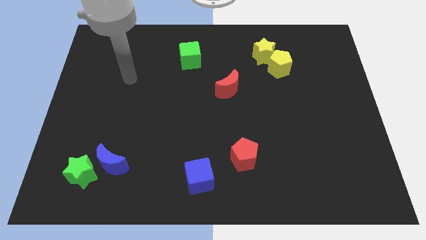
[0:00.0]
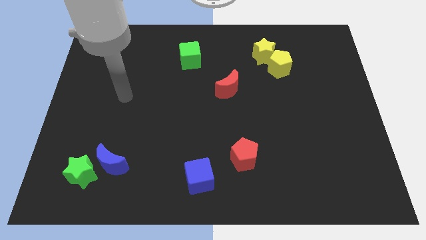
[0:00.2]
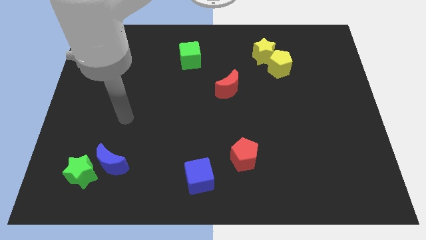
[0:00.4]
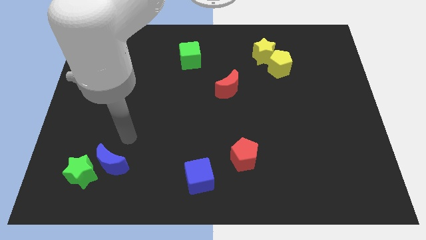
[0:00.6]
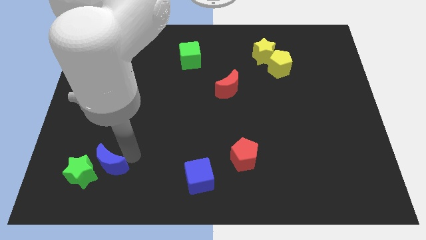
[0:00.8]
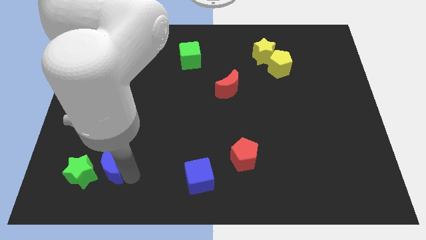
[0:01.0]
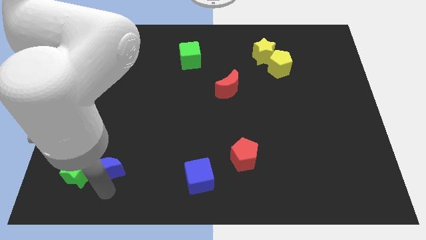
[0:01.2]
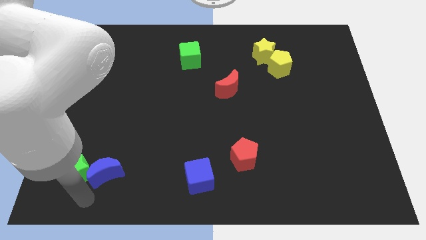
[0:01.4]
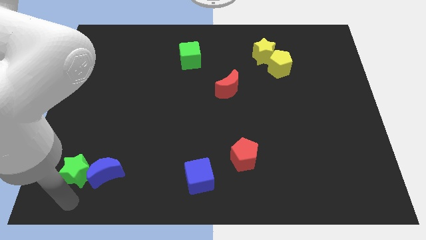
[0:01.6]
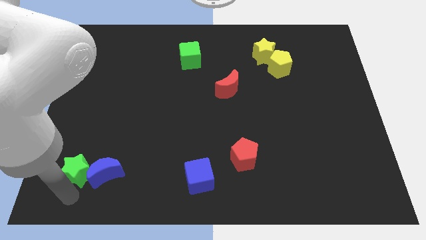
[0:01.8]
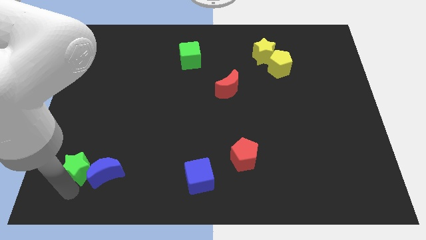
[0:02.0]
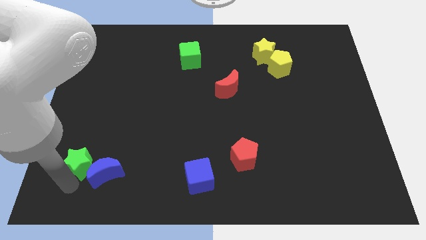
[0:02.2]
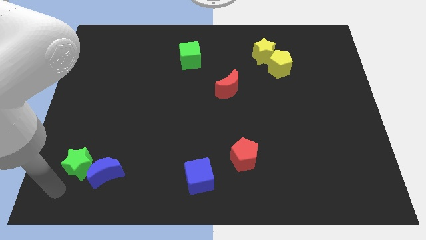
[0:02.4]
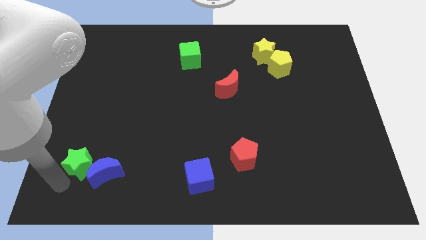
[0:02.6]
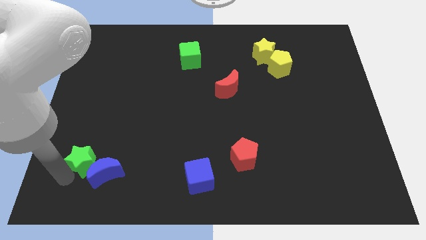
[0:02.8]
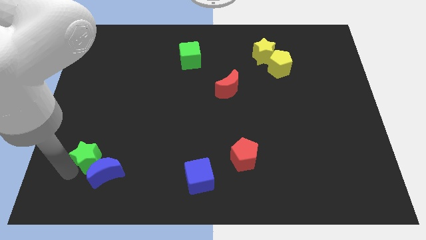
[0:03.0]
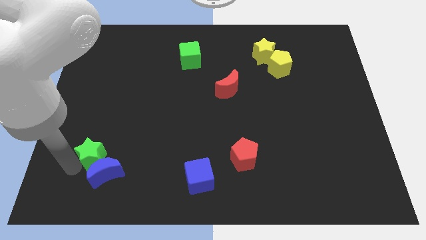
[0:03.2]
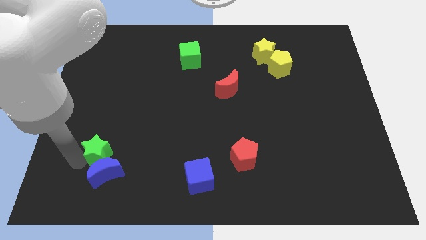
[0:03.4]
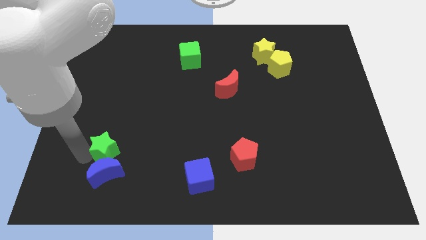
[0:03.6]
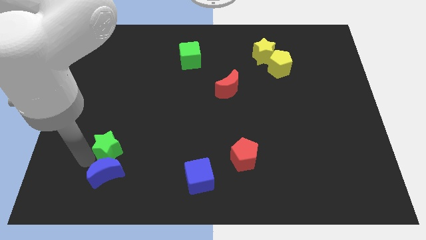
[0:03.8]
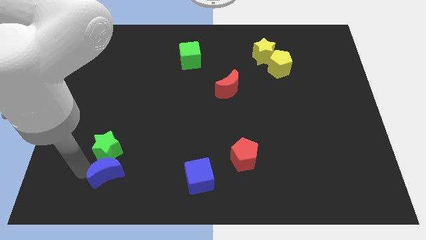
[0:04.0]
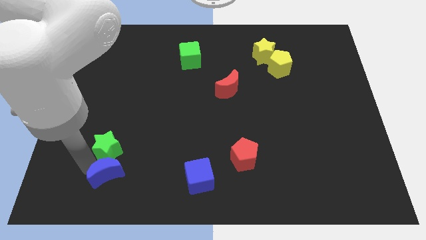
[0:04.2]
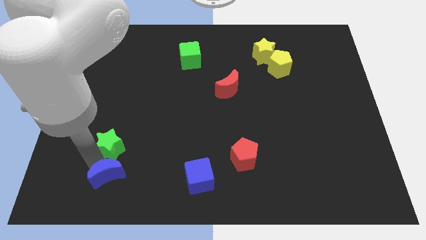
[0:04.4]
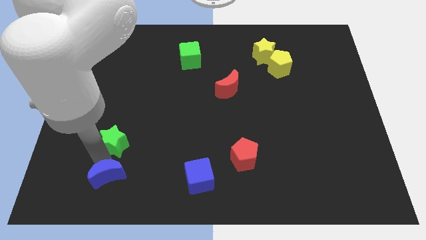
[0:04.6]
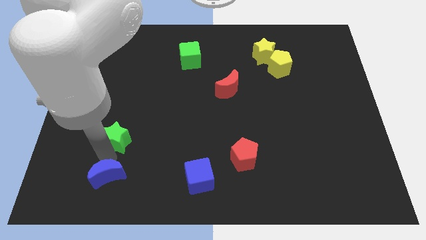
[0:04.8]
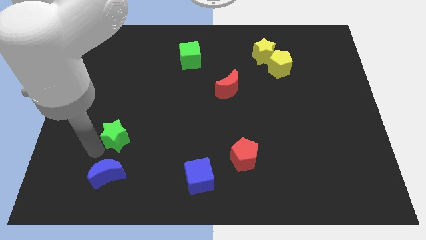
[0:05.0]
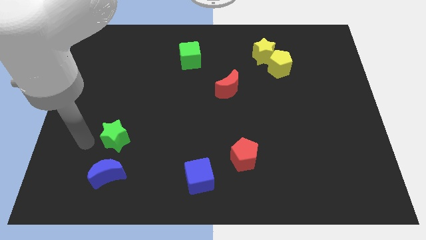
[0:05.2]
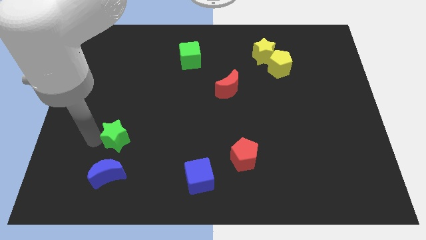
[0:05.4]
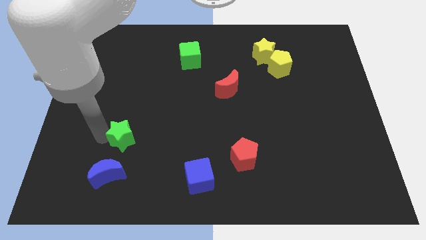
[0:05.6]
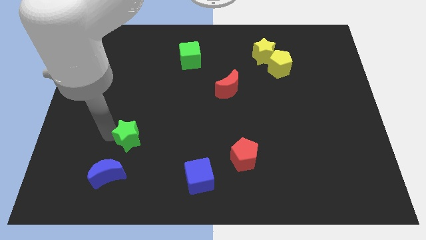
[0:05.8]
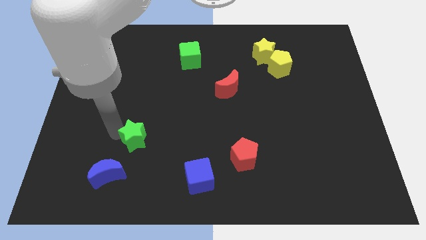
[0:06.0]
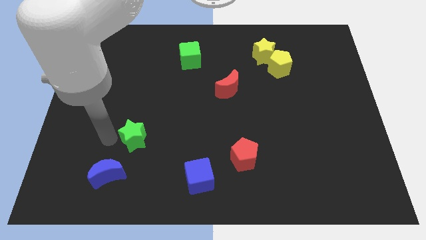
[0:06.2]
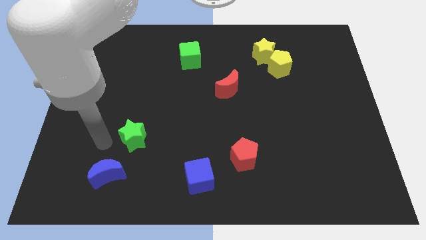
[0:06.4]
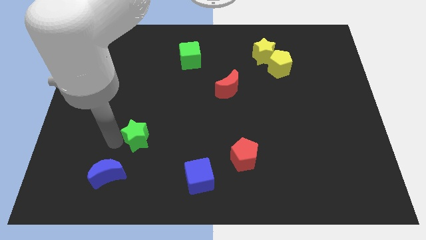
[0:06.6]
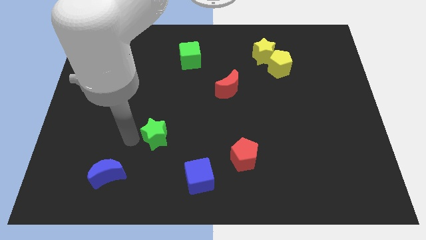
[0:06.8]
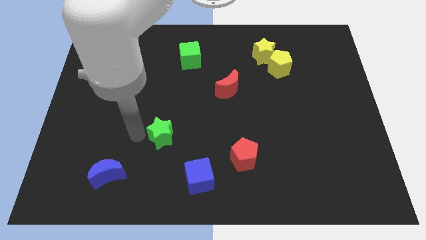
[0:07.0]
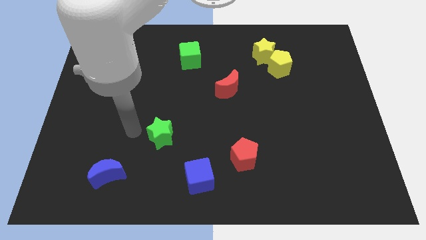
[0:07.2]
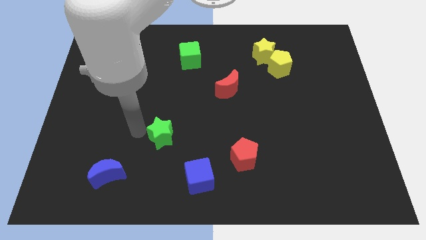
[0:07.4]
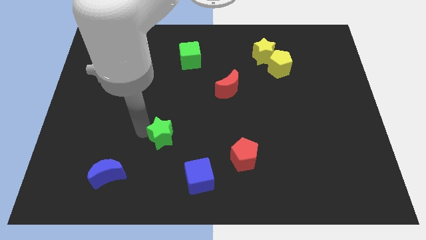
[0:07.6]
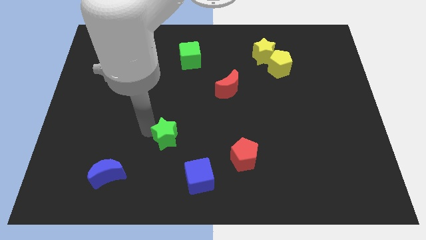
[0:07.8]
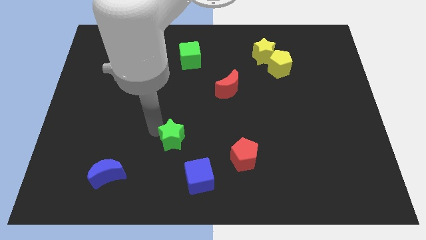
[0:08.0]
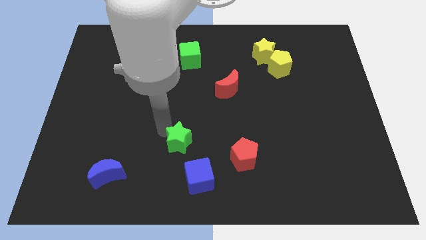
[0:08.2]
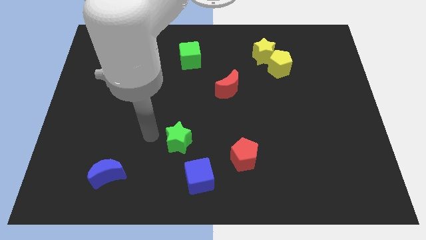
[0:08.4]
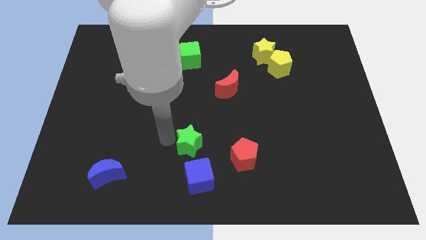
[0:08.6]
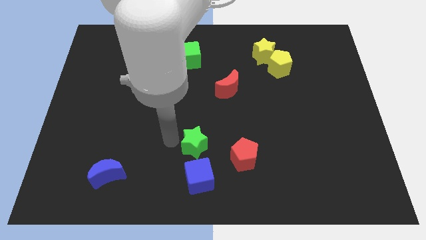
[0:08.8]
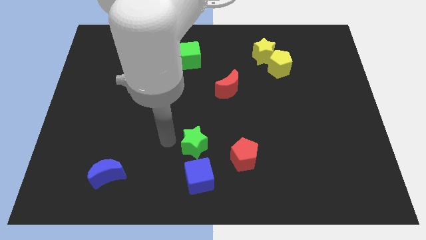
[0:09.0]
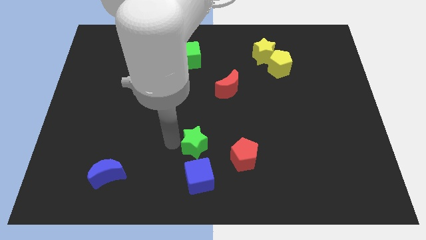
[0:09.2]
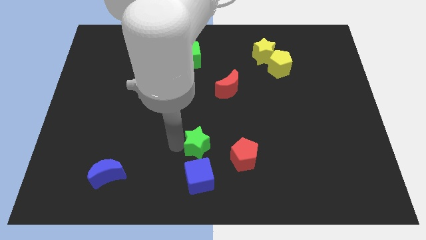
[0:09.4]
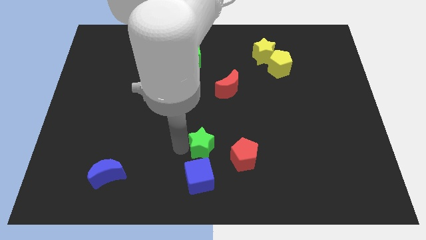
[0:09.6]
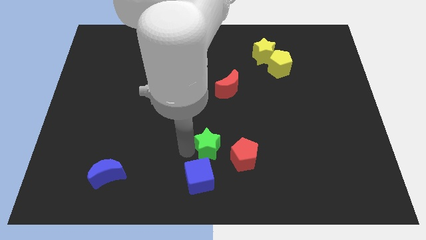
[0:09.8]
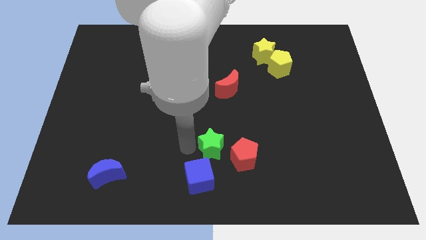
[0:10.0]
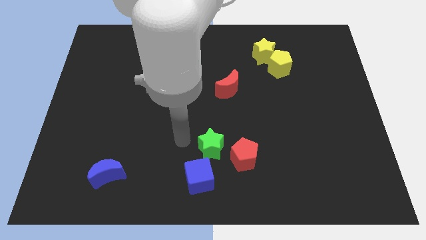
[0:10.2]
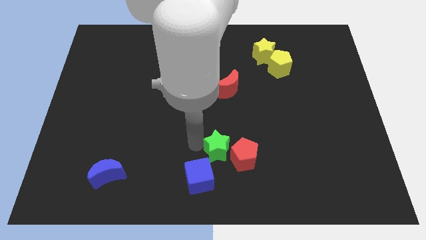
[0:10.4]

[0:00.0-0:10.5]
slide the green star next to the red pentagon

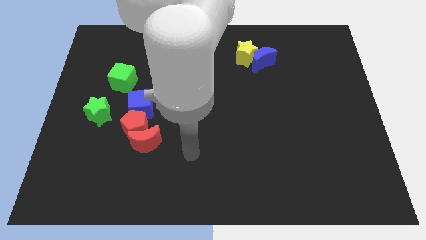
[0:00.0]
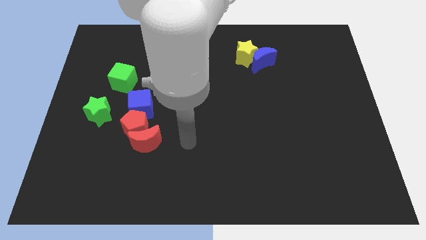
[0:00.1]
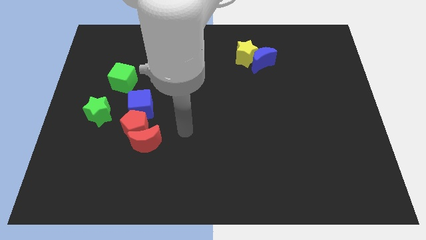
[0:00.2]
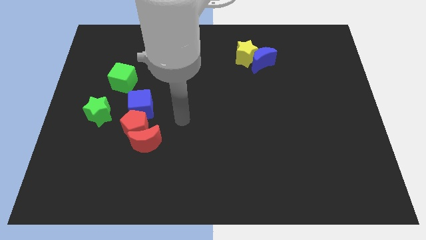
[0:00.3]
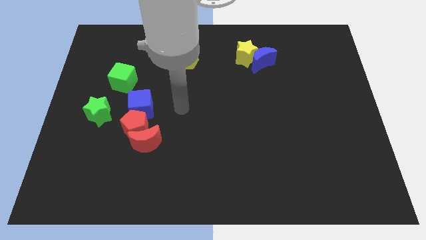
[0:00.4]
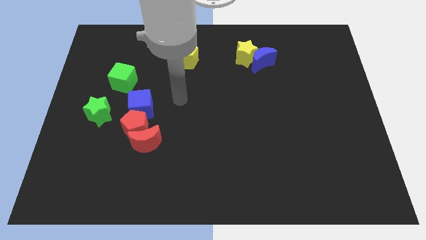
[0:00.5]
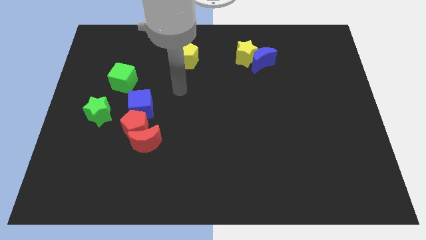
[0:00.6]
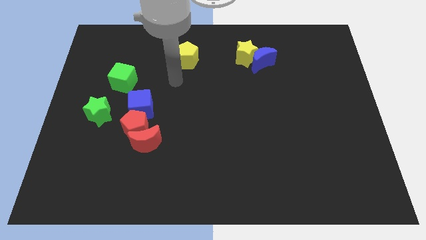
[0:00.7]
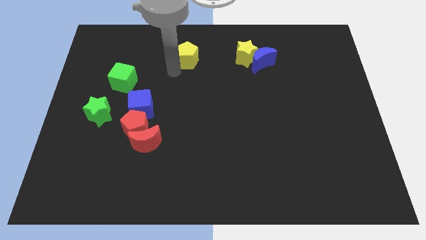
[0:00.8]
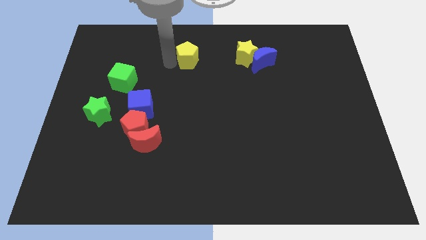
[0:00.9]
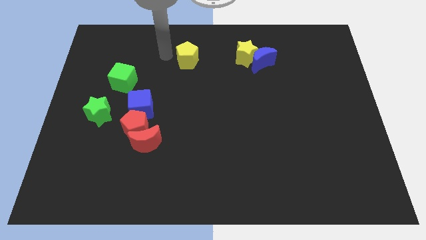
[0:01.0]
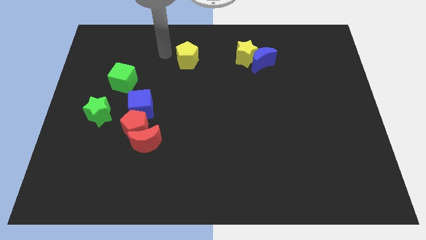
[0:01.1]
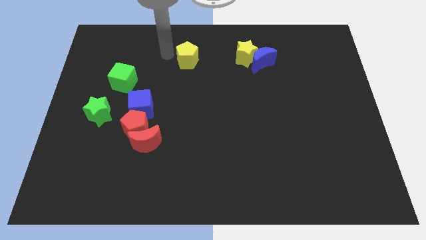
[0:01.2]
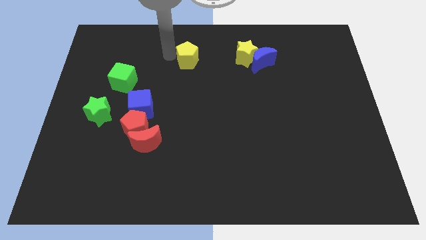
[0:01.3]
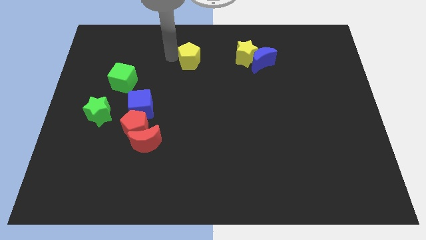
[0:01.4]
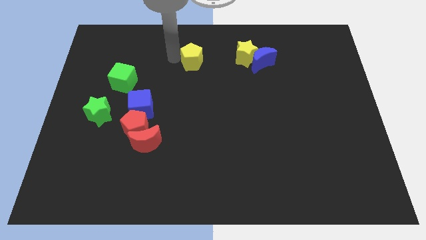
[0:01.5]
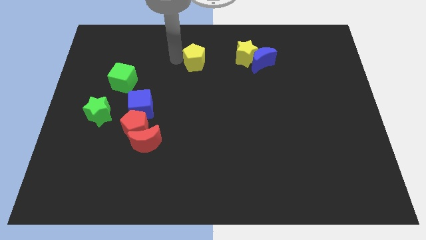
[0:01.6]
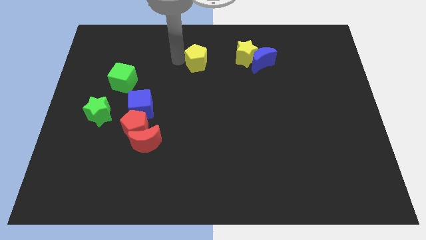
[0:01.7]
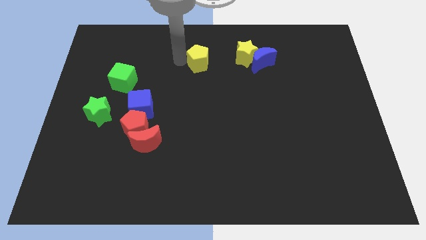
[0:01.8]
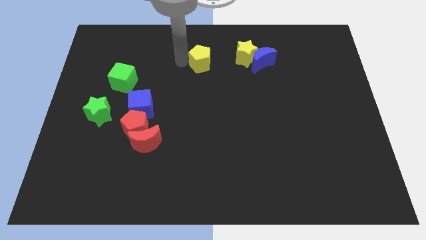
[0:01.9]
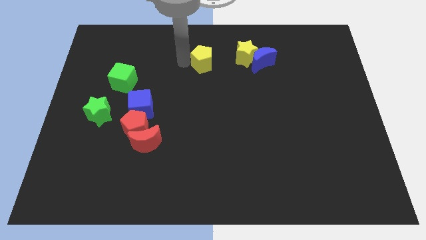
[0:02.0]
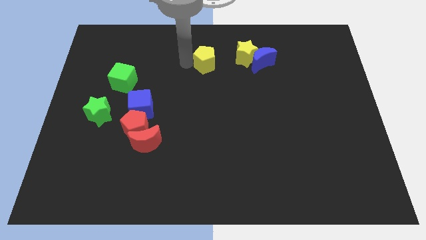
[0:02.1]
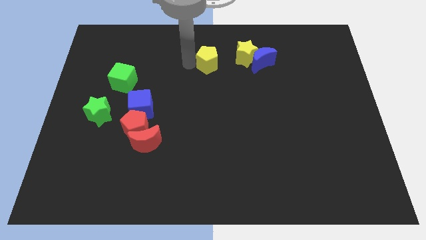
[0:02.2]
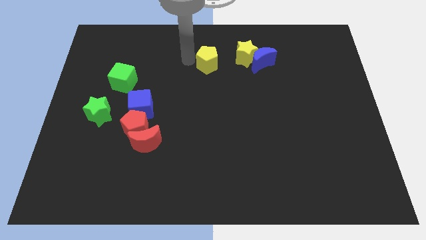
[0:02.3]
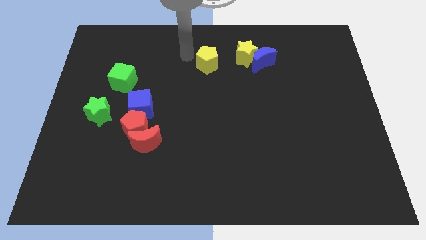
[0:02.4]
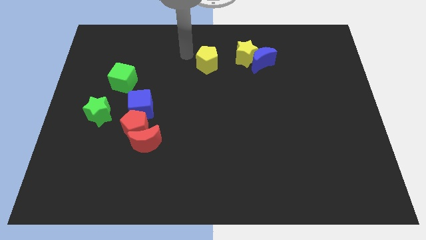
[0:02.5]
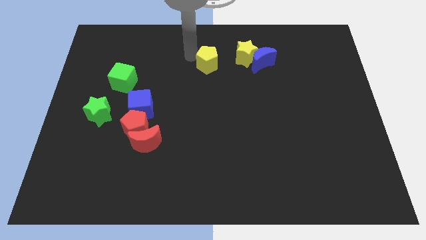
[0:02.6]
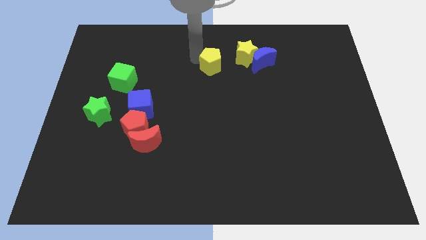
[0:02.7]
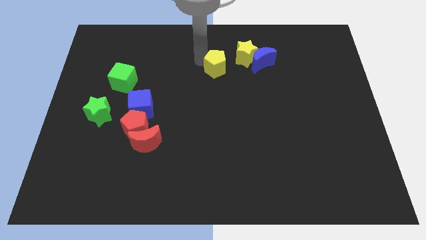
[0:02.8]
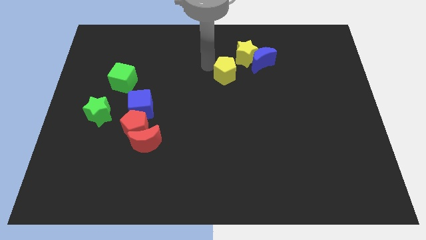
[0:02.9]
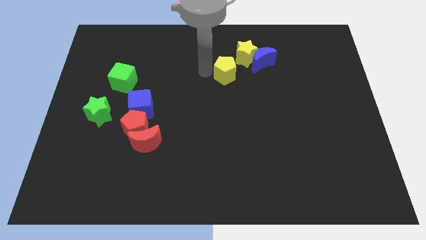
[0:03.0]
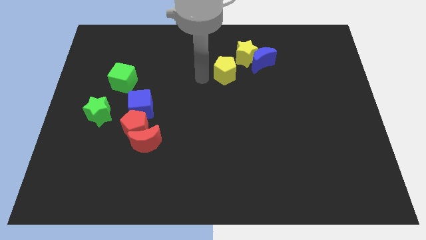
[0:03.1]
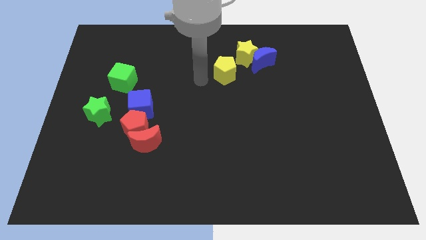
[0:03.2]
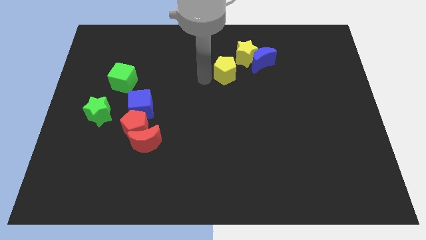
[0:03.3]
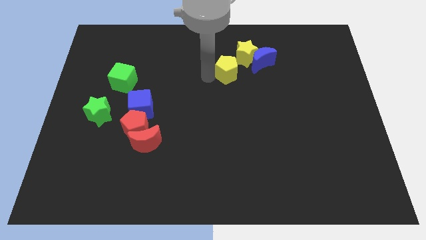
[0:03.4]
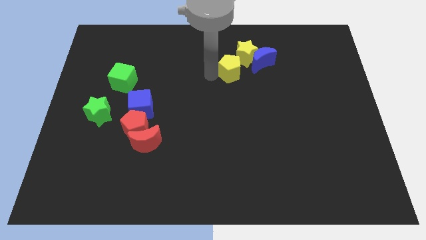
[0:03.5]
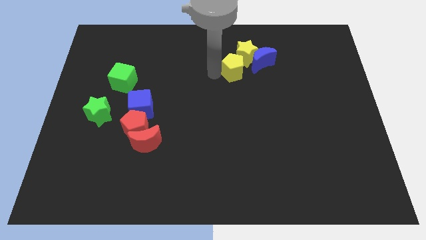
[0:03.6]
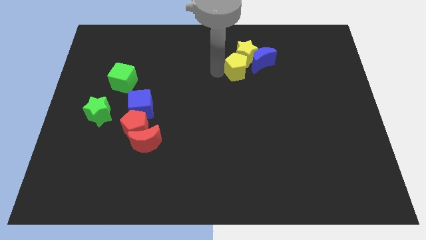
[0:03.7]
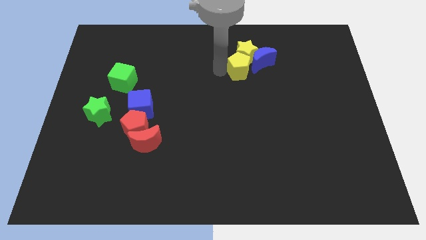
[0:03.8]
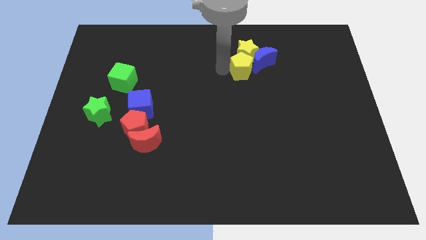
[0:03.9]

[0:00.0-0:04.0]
move the yellow pentagon close to the blue moon
